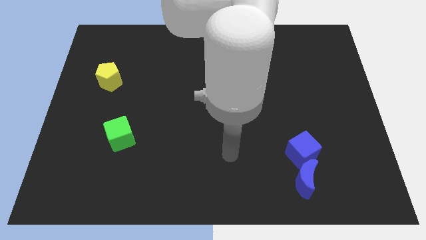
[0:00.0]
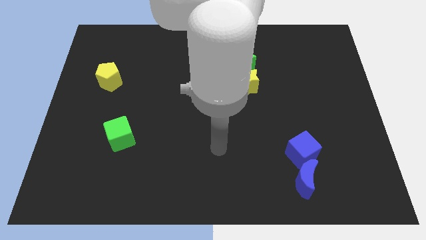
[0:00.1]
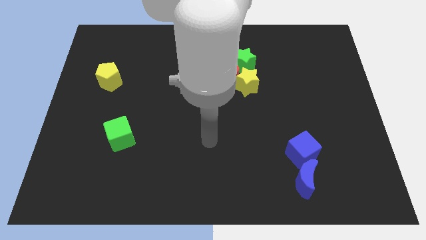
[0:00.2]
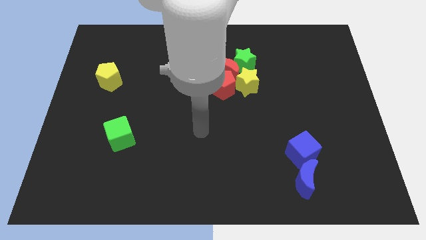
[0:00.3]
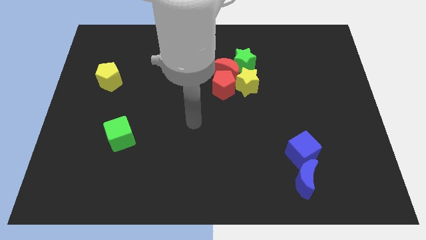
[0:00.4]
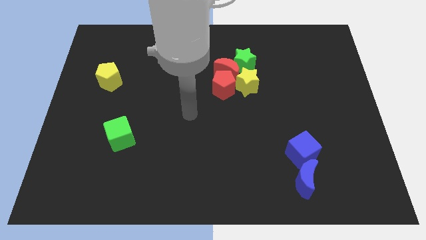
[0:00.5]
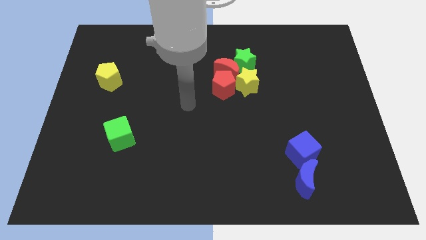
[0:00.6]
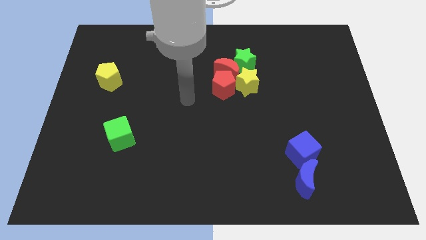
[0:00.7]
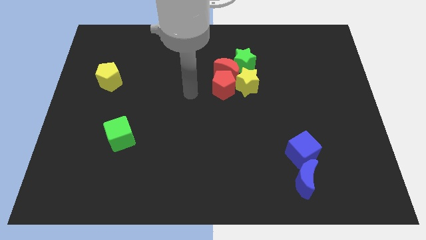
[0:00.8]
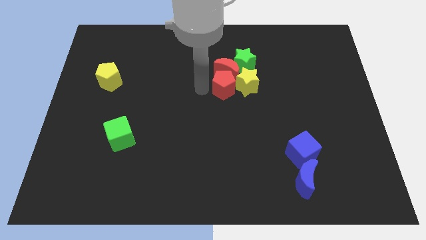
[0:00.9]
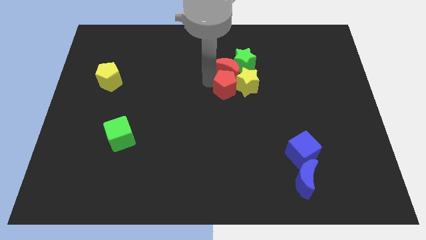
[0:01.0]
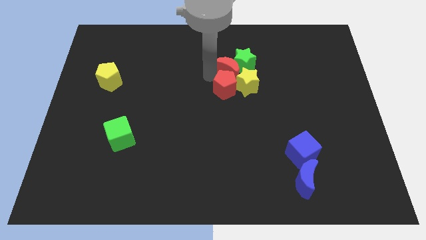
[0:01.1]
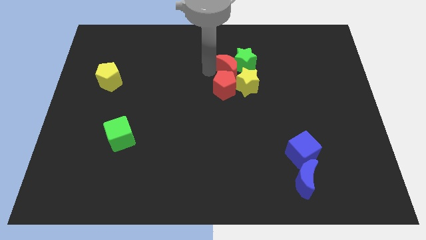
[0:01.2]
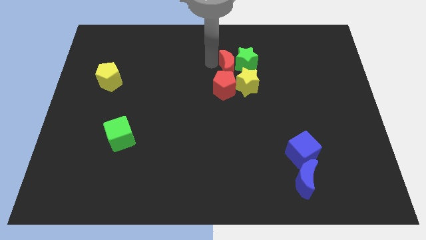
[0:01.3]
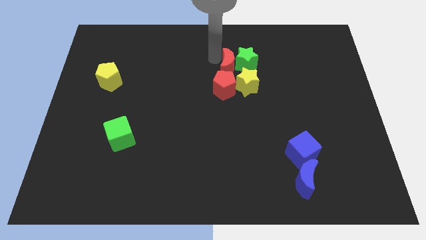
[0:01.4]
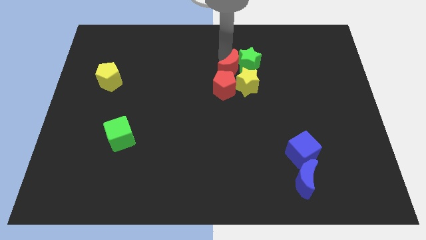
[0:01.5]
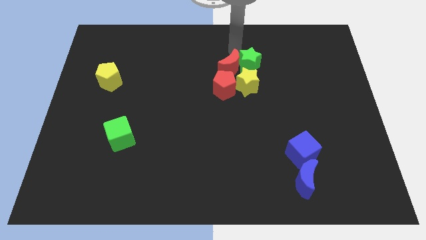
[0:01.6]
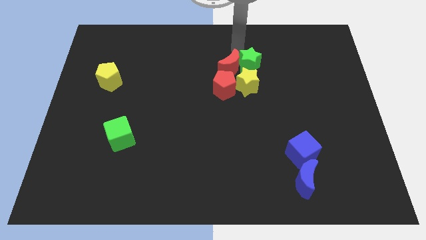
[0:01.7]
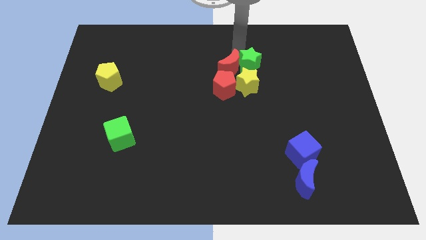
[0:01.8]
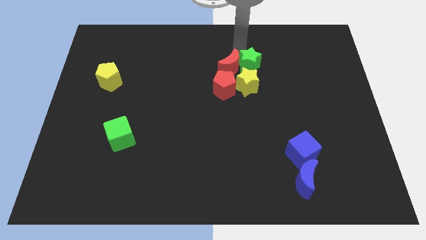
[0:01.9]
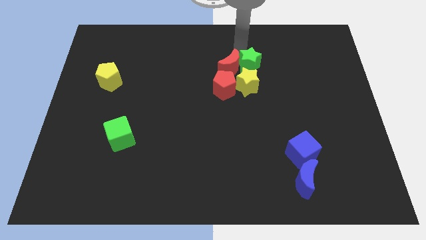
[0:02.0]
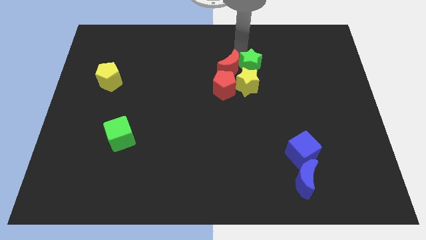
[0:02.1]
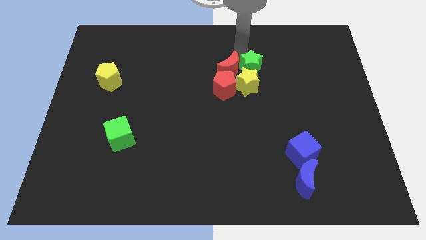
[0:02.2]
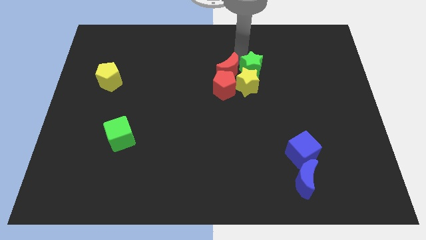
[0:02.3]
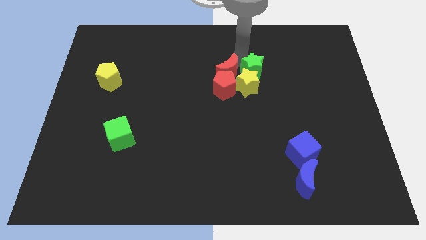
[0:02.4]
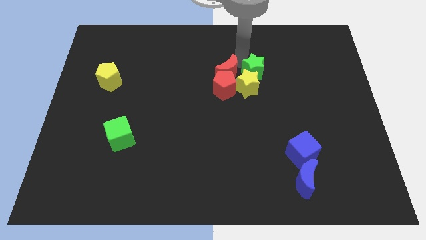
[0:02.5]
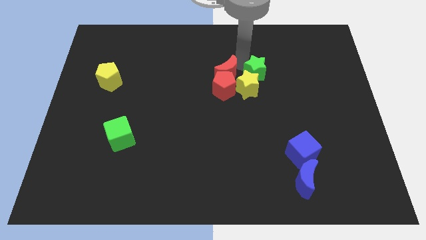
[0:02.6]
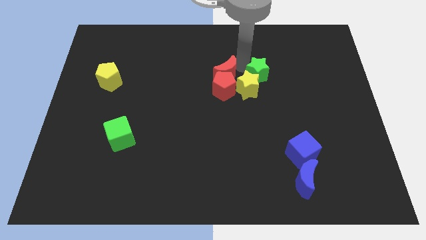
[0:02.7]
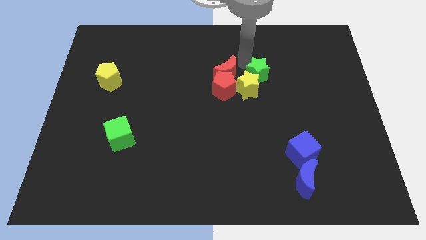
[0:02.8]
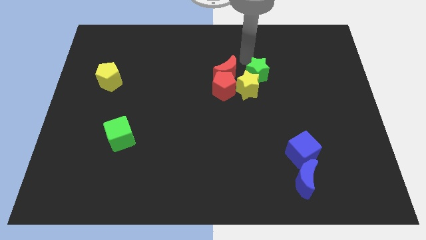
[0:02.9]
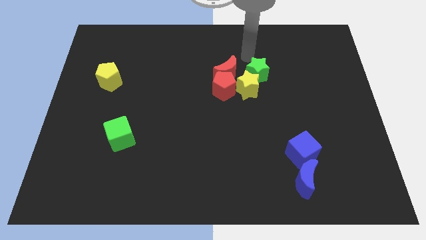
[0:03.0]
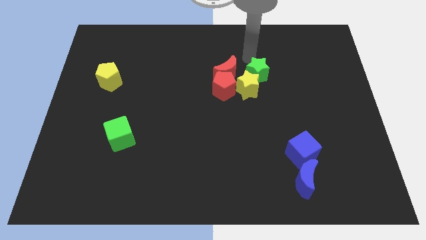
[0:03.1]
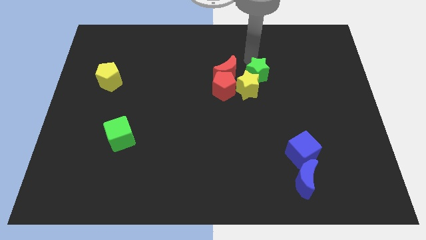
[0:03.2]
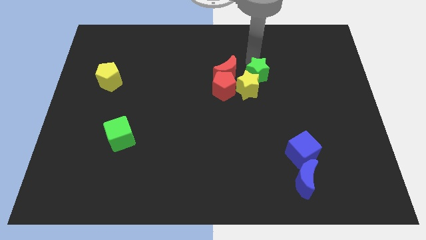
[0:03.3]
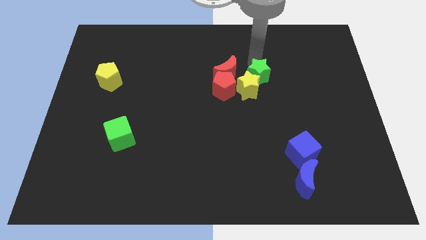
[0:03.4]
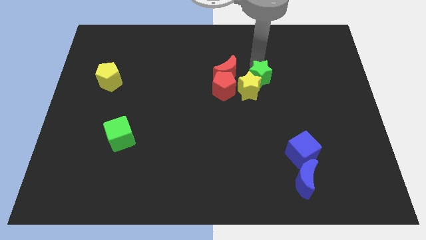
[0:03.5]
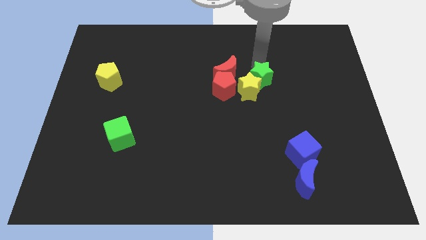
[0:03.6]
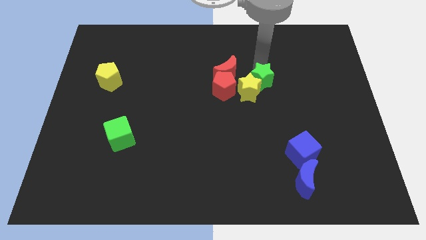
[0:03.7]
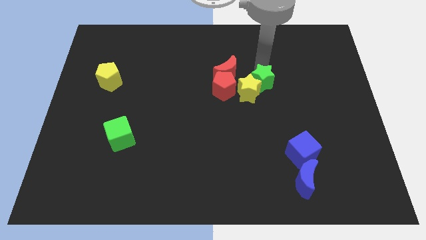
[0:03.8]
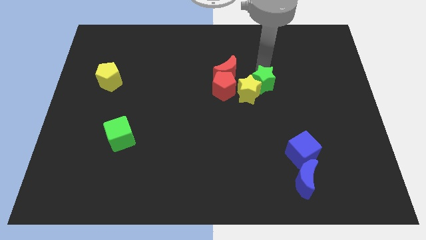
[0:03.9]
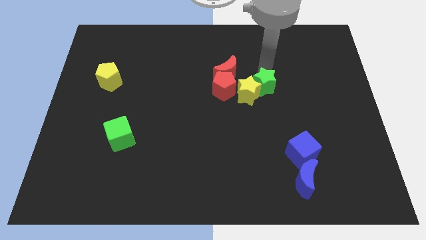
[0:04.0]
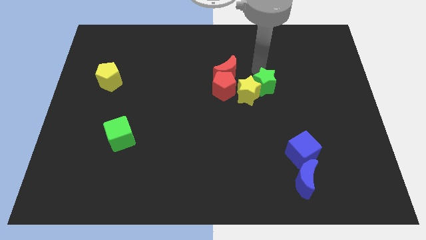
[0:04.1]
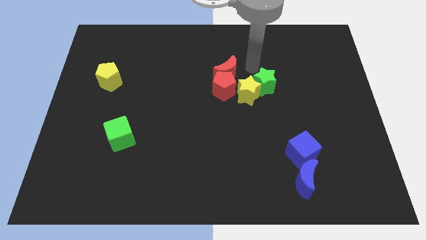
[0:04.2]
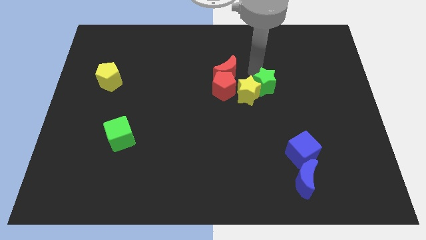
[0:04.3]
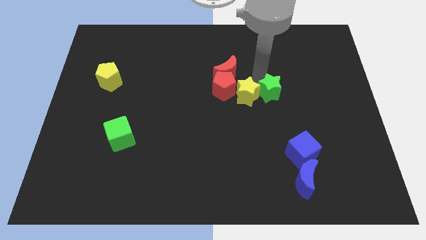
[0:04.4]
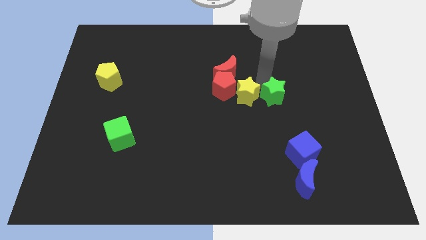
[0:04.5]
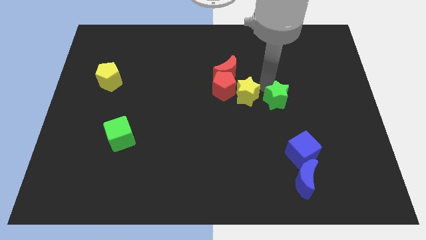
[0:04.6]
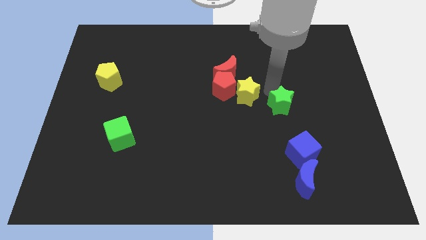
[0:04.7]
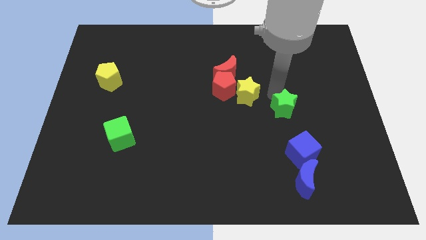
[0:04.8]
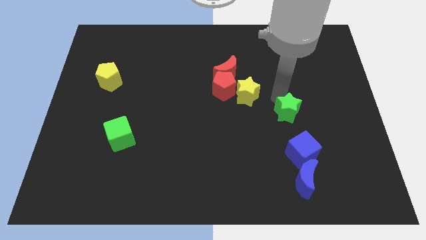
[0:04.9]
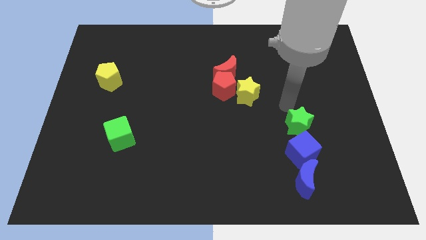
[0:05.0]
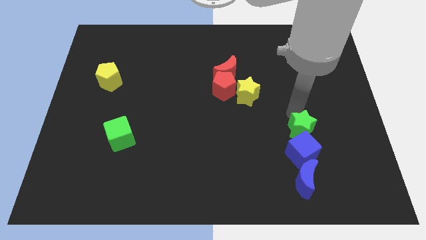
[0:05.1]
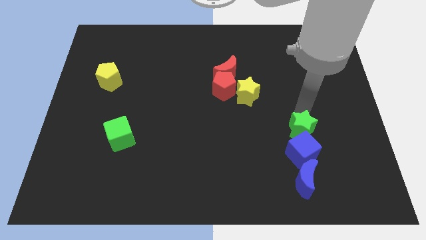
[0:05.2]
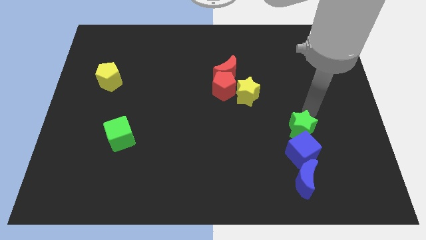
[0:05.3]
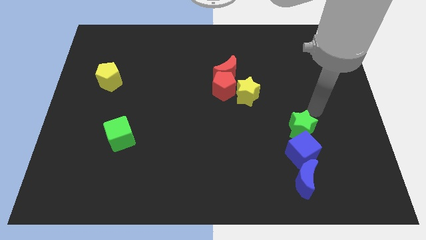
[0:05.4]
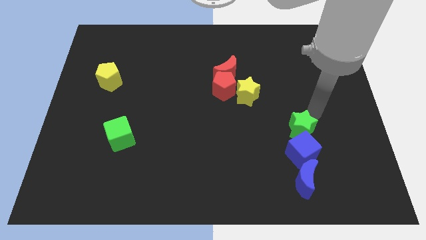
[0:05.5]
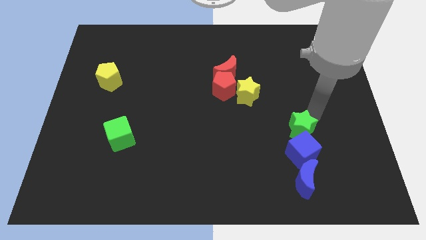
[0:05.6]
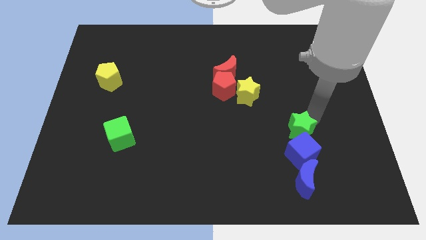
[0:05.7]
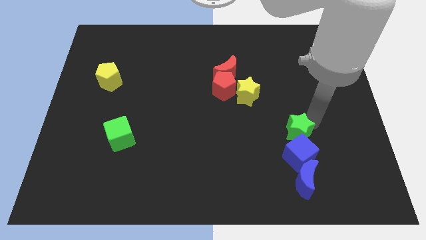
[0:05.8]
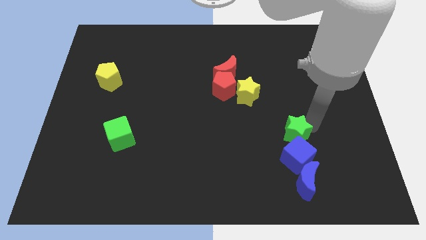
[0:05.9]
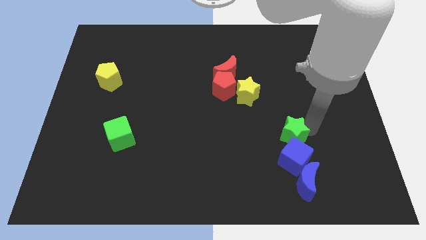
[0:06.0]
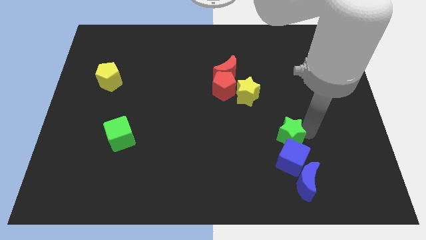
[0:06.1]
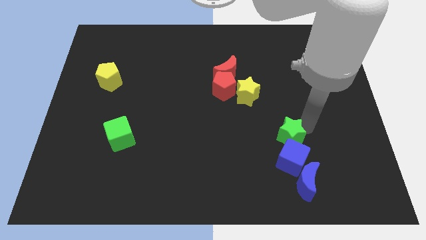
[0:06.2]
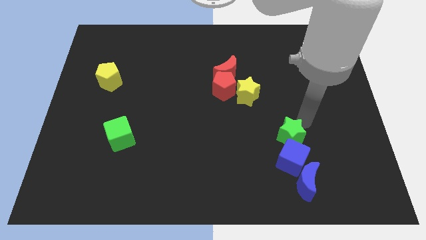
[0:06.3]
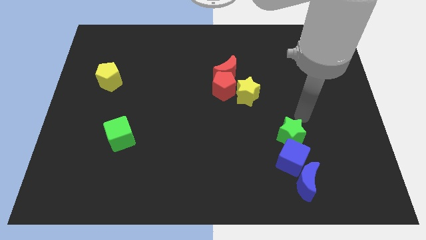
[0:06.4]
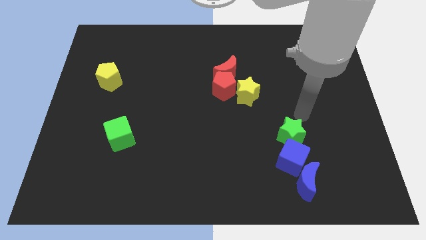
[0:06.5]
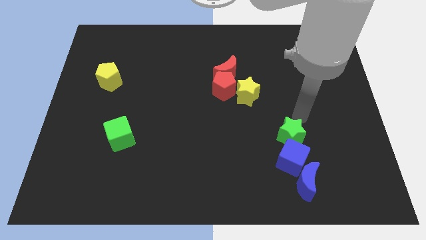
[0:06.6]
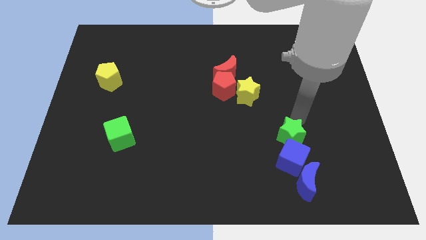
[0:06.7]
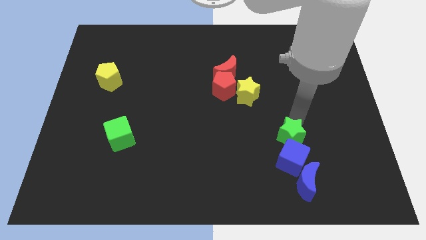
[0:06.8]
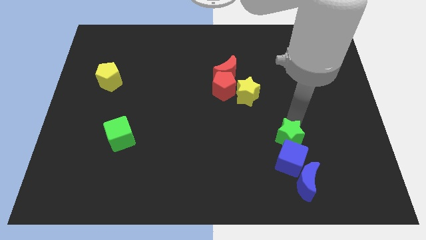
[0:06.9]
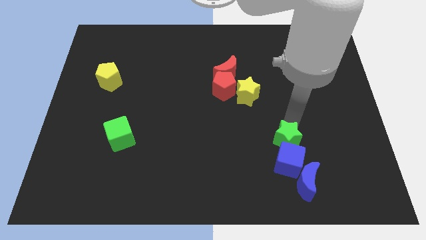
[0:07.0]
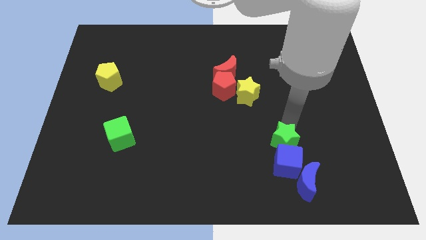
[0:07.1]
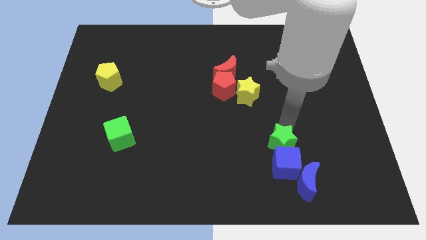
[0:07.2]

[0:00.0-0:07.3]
put the green star diagonally up and to the left of the blue moon
